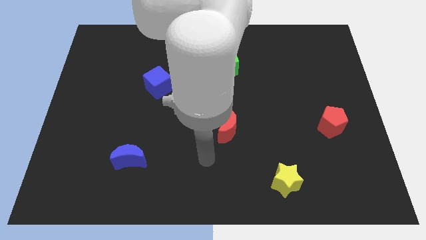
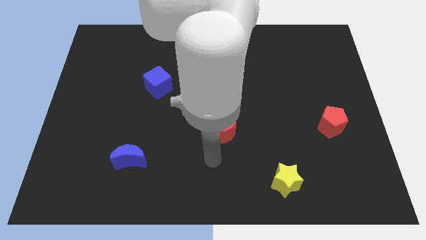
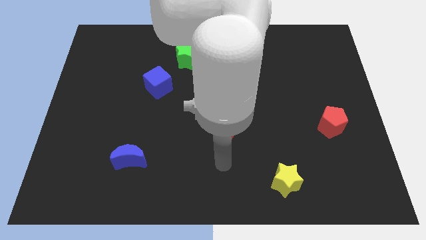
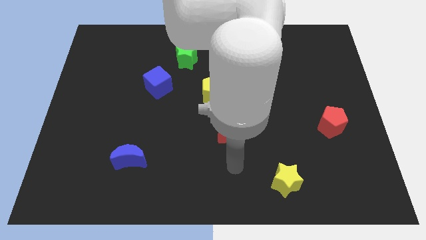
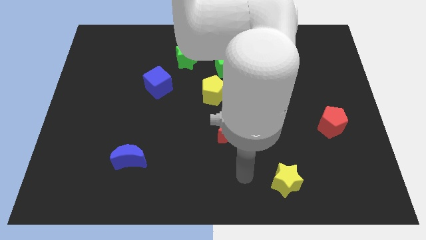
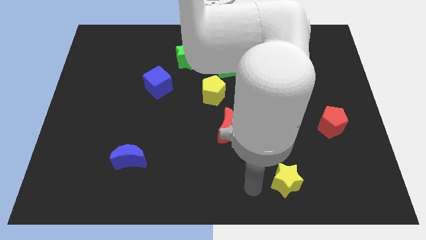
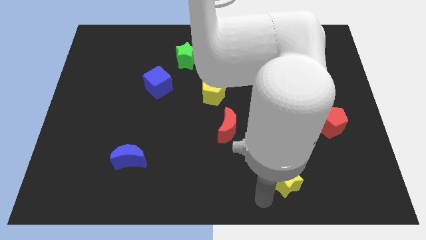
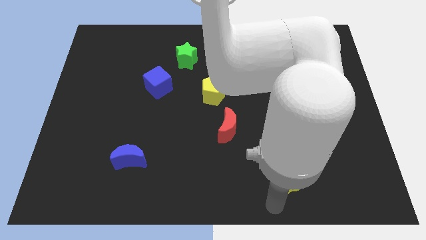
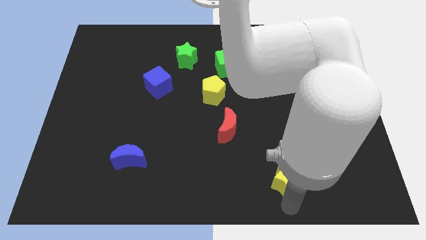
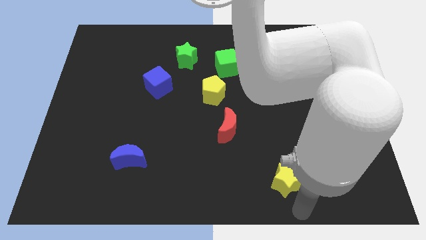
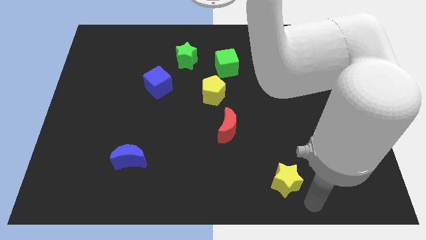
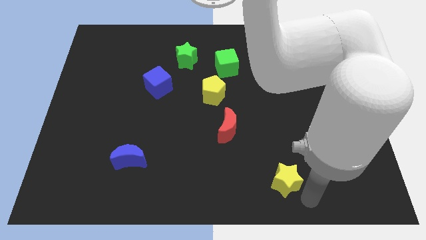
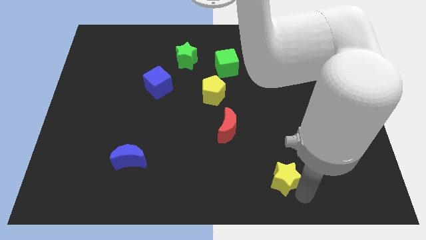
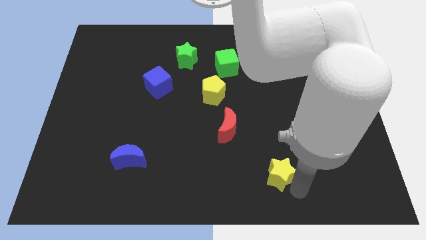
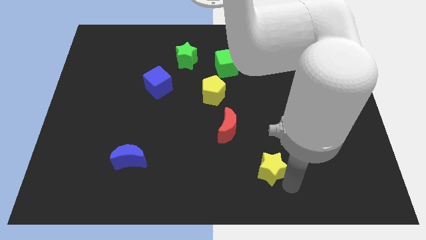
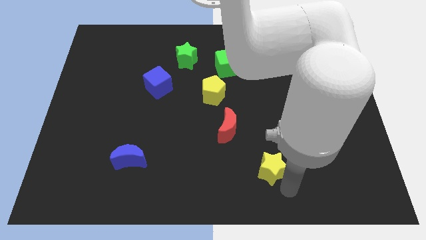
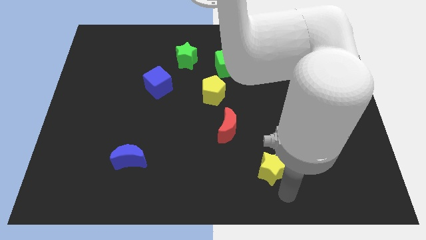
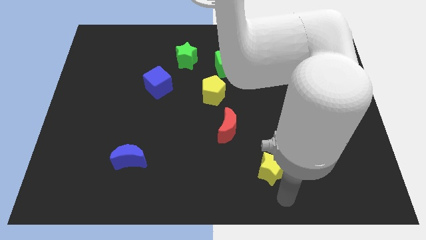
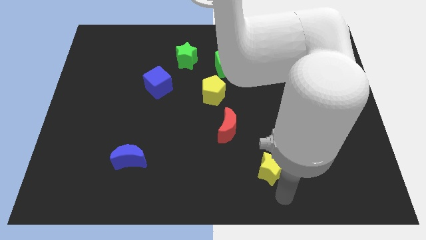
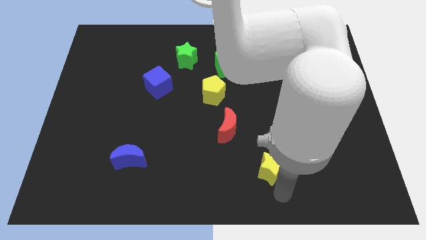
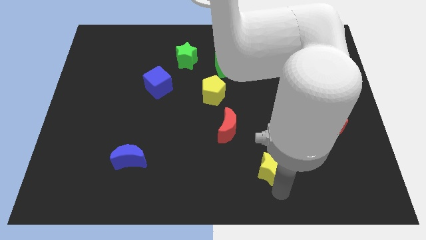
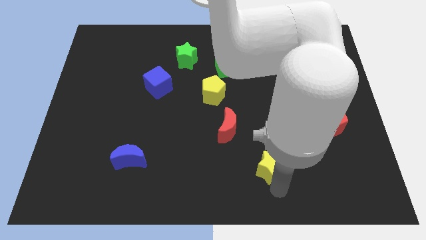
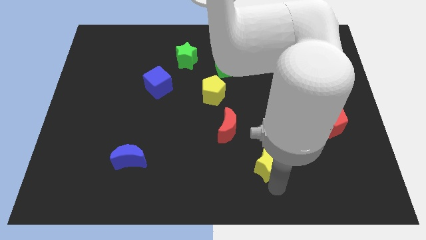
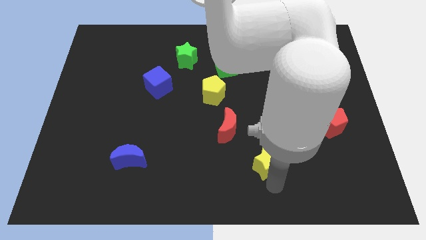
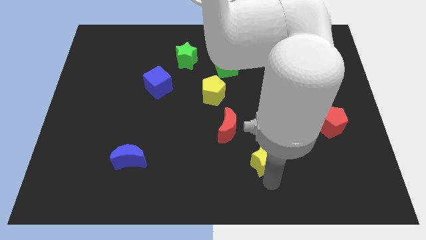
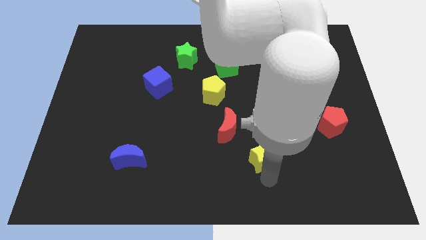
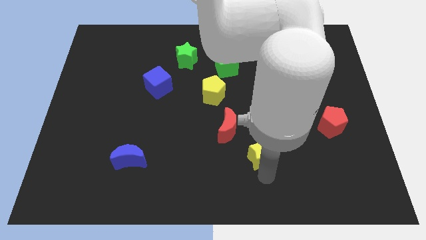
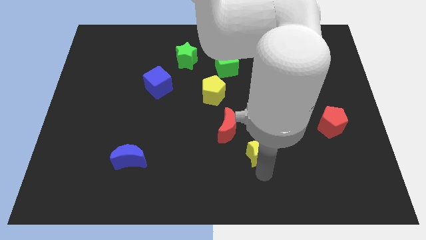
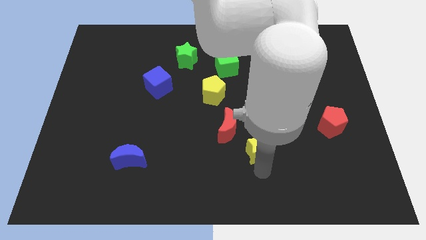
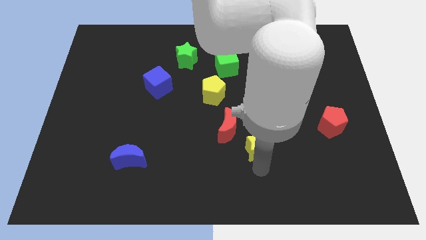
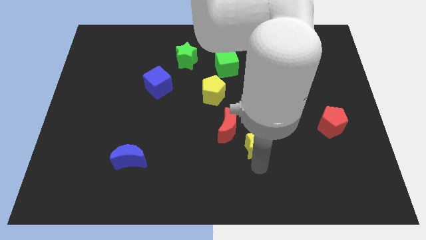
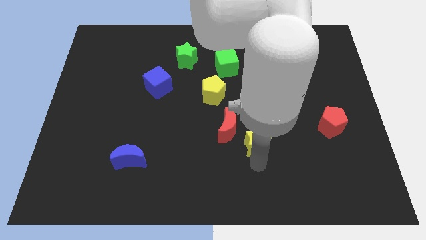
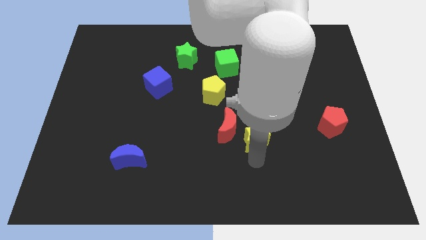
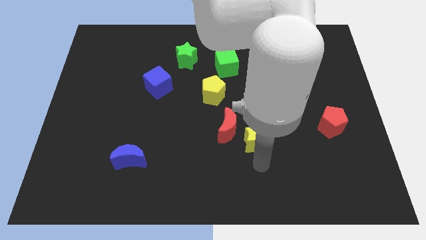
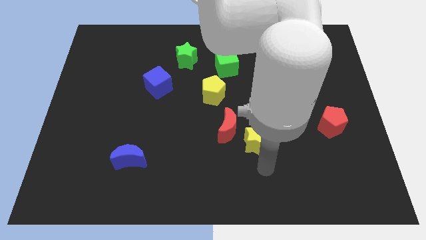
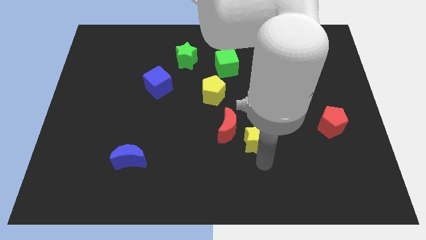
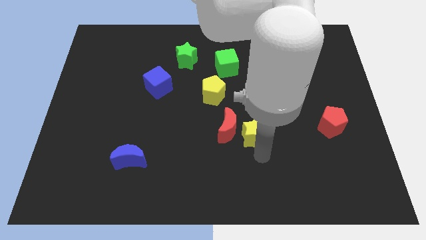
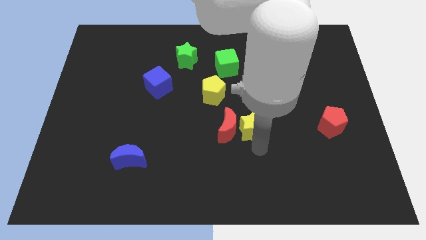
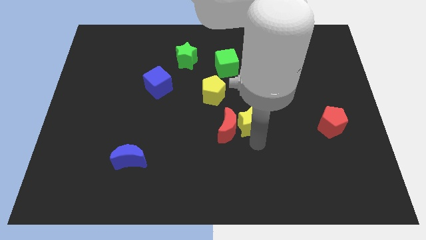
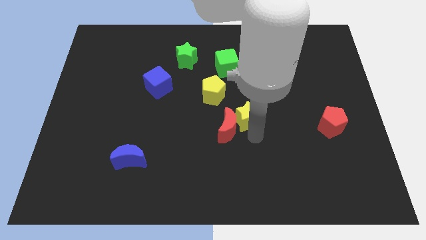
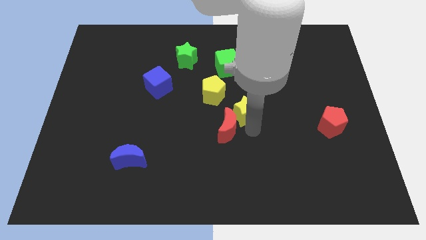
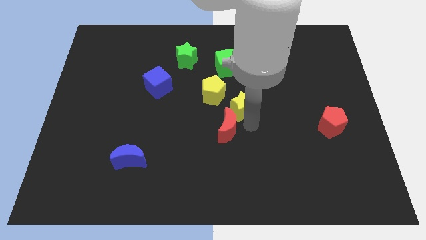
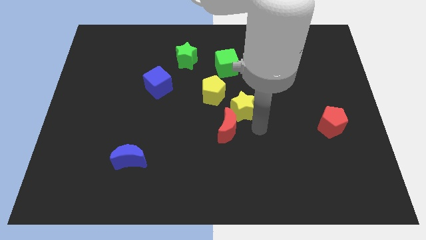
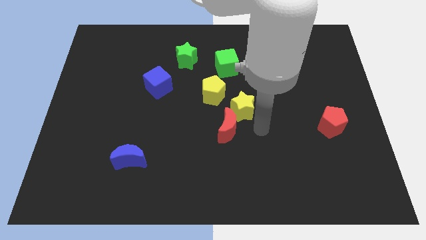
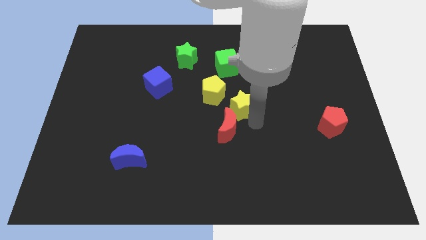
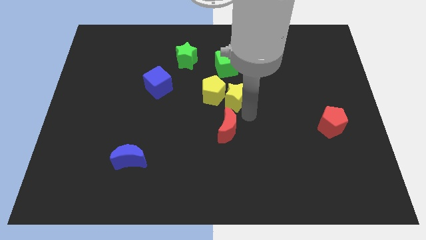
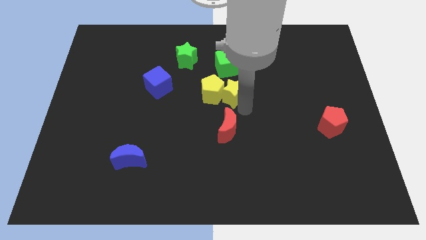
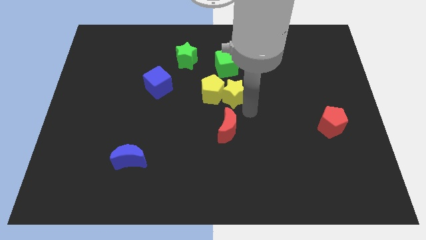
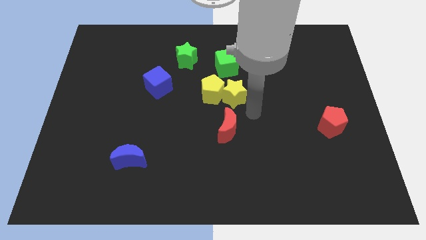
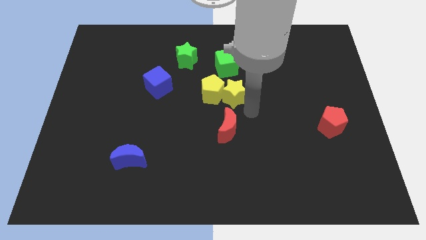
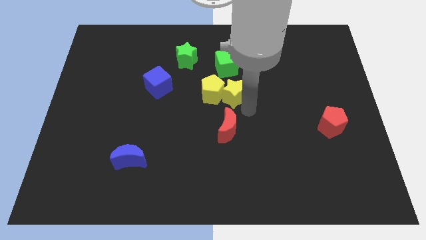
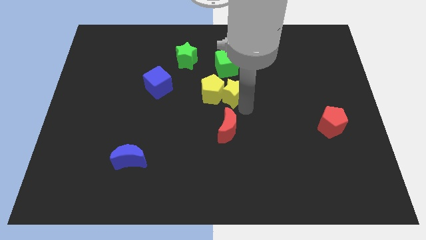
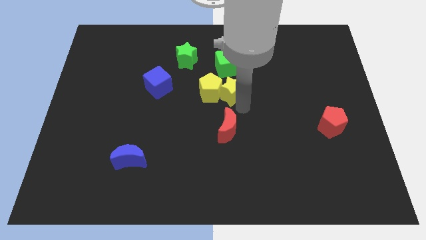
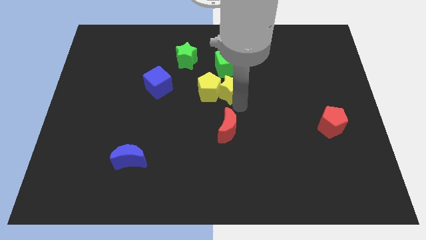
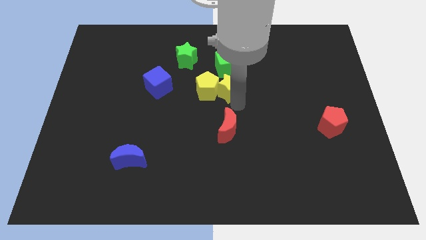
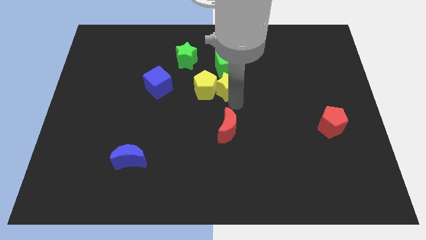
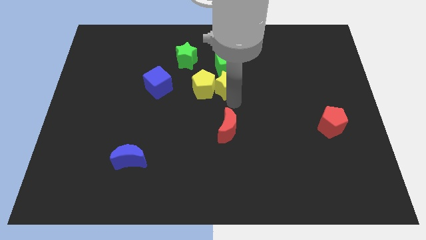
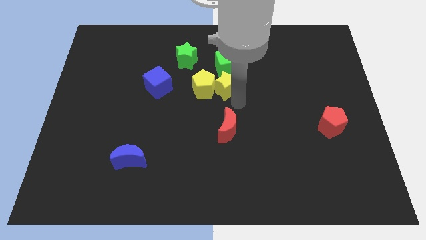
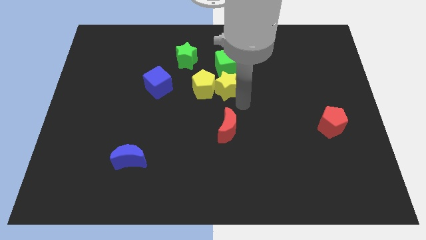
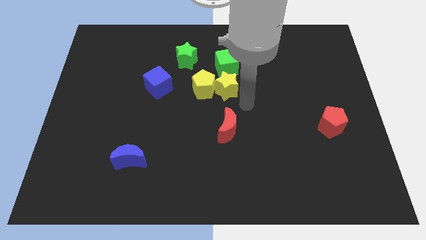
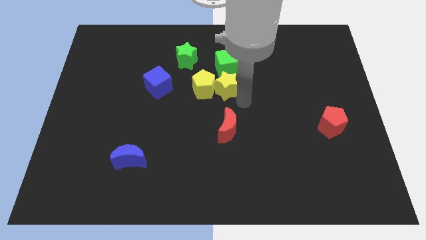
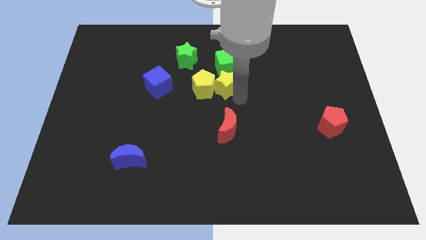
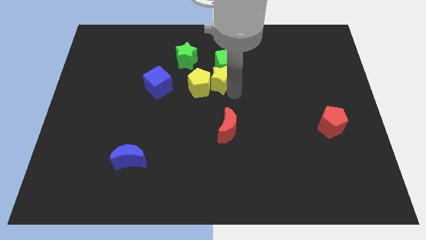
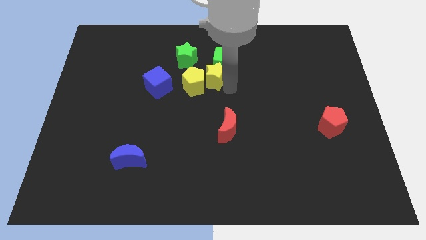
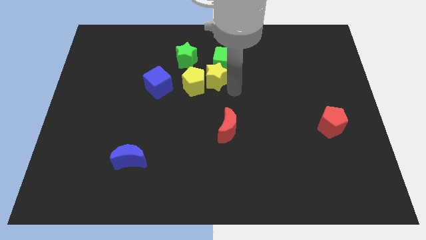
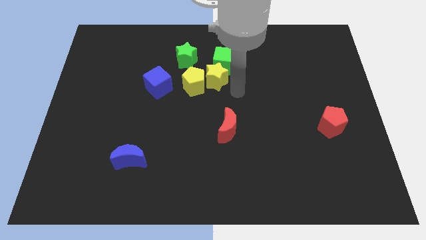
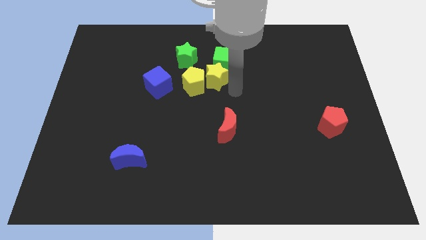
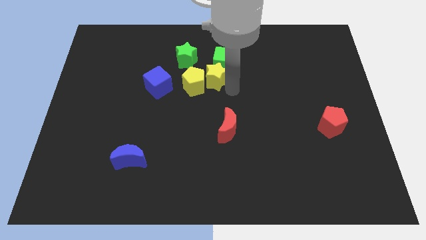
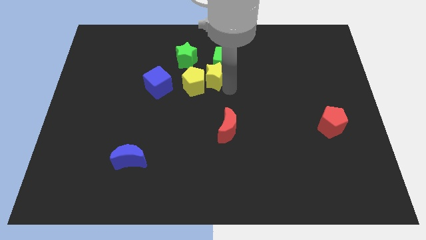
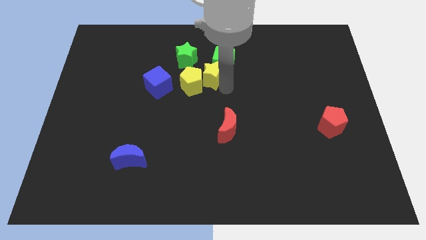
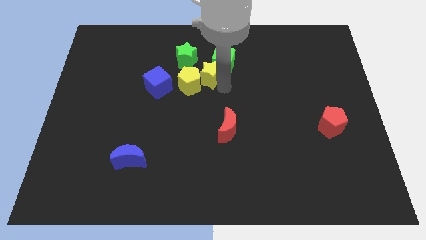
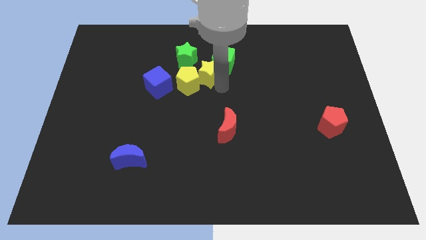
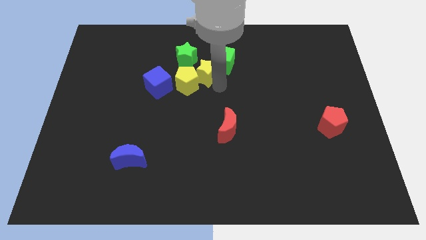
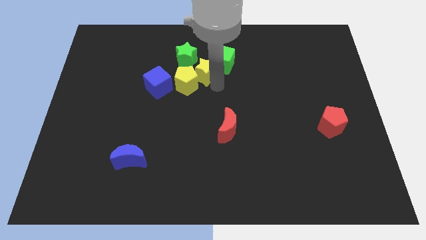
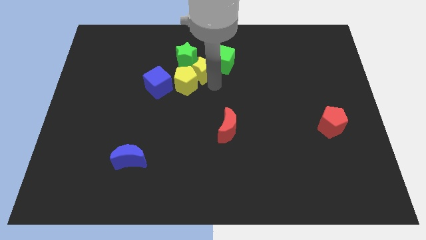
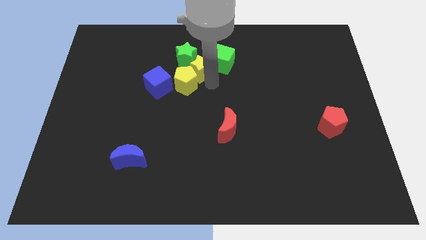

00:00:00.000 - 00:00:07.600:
move the yellow star to the green star
